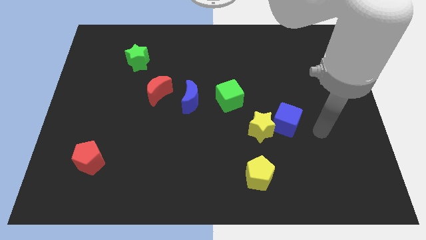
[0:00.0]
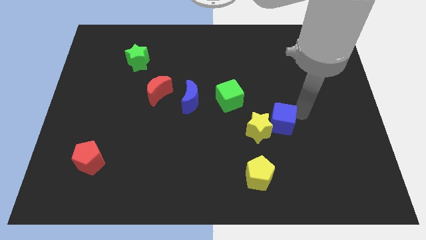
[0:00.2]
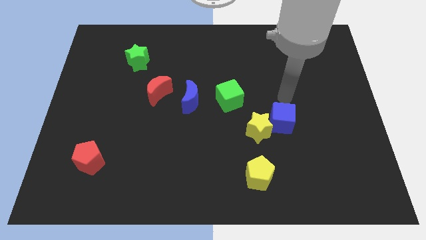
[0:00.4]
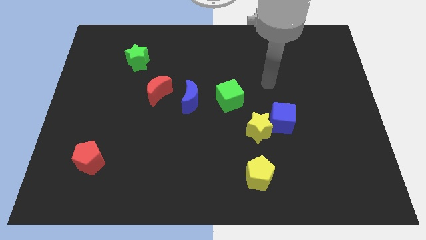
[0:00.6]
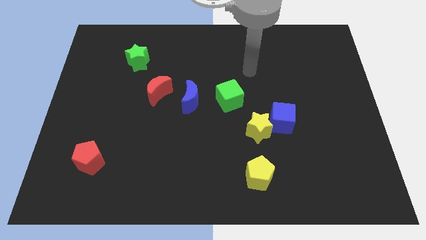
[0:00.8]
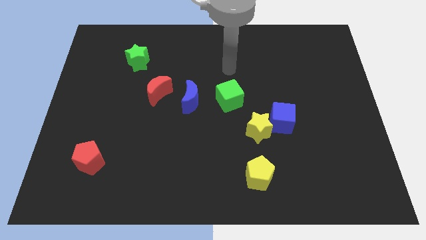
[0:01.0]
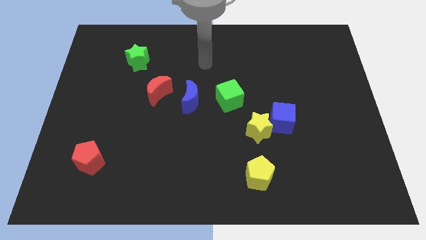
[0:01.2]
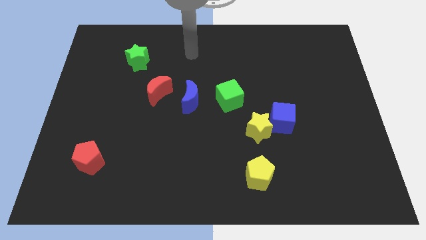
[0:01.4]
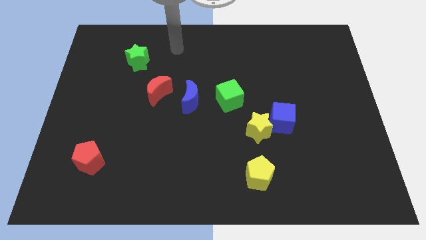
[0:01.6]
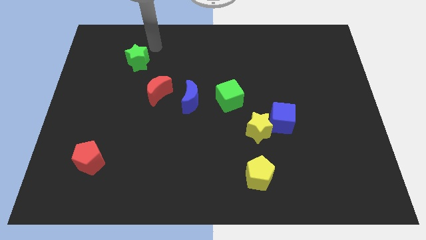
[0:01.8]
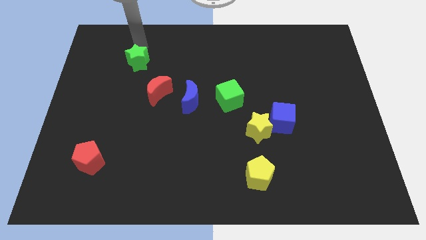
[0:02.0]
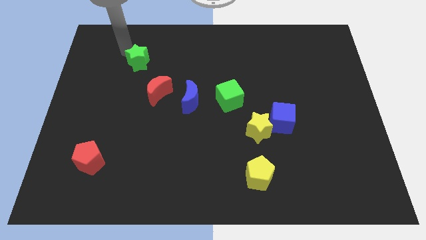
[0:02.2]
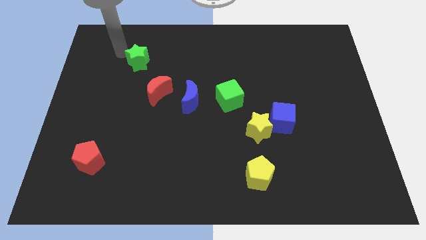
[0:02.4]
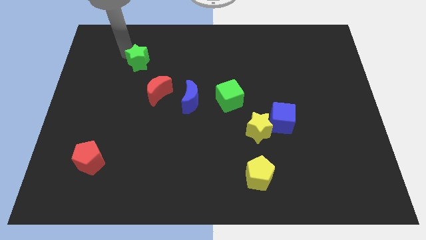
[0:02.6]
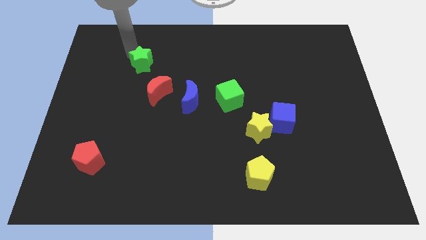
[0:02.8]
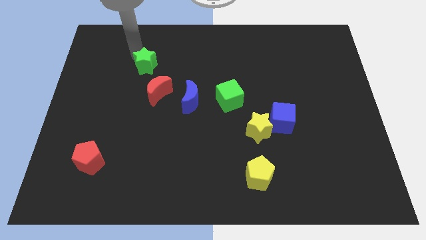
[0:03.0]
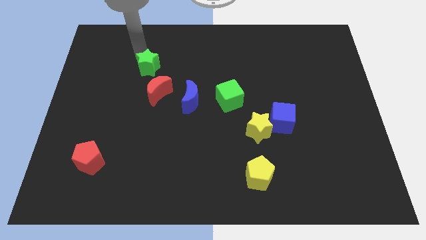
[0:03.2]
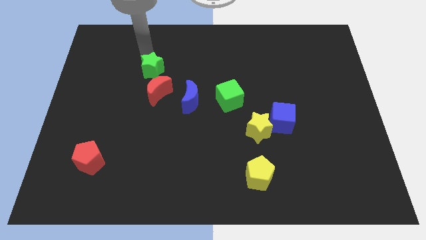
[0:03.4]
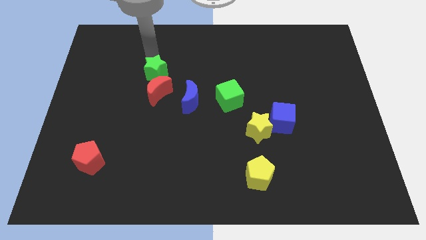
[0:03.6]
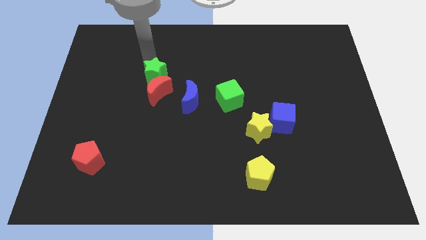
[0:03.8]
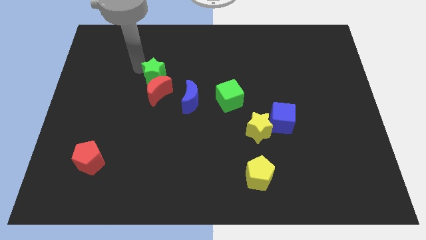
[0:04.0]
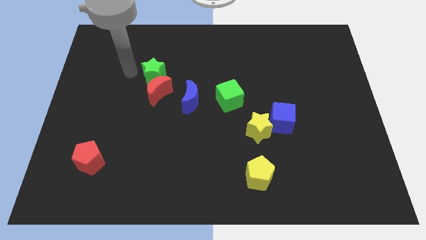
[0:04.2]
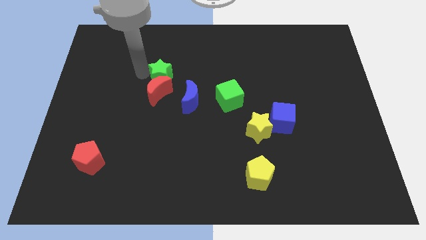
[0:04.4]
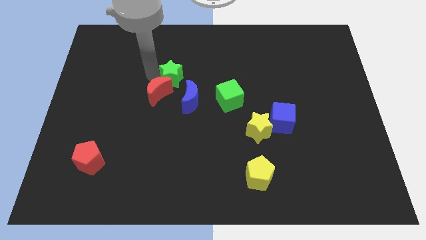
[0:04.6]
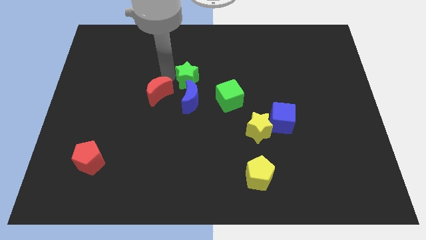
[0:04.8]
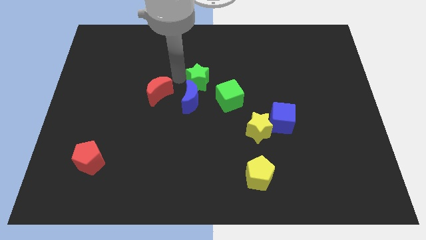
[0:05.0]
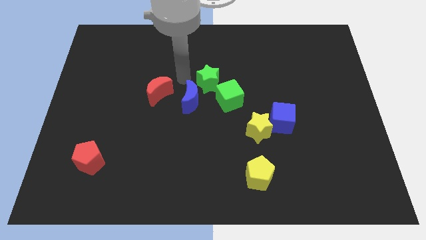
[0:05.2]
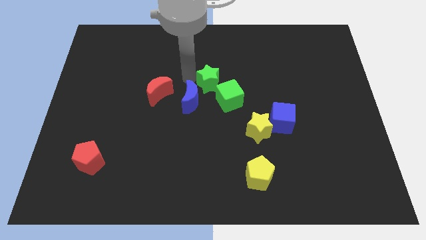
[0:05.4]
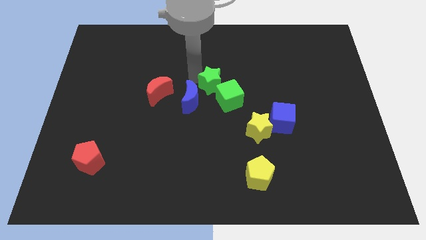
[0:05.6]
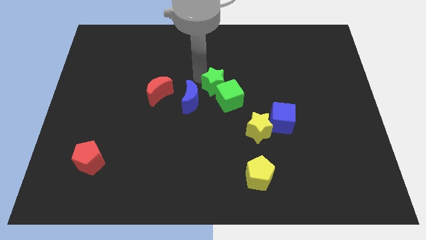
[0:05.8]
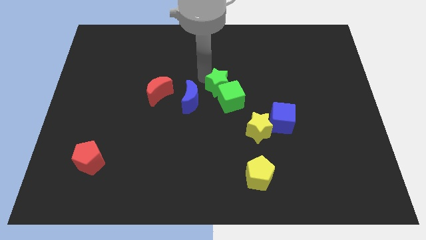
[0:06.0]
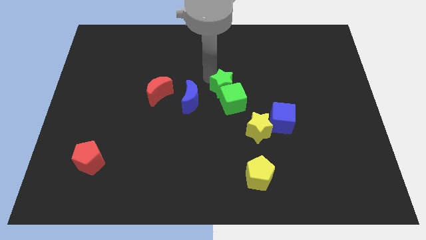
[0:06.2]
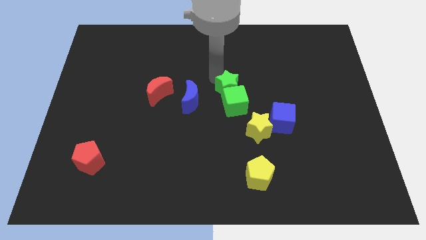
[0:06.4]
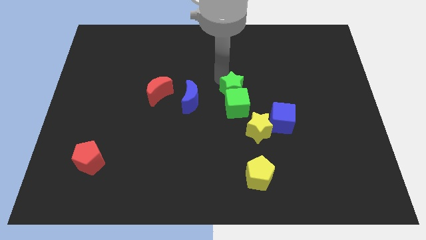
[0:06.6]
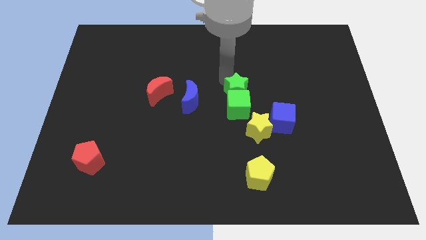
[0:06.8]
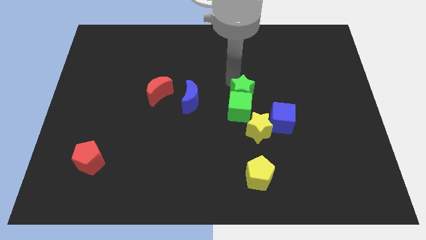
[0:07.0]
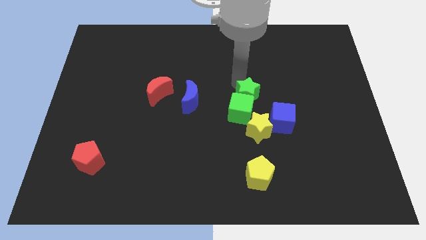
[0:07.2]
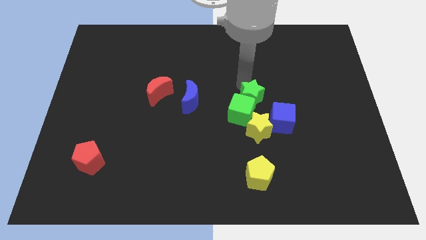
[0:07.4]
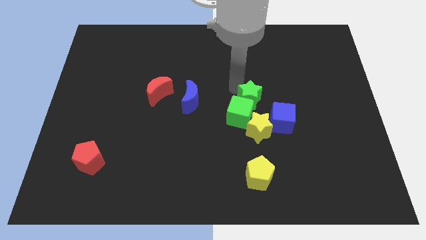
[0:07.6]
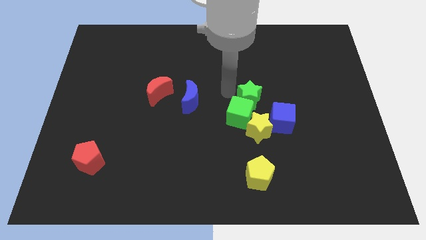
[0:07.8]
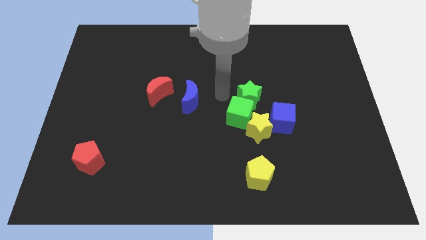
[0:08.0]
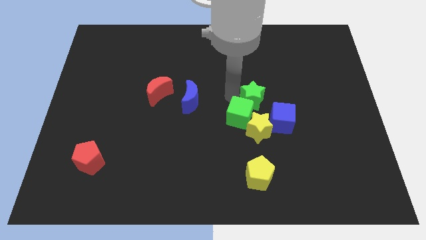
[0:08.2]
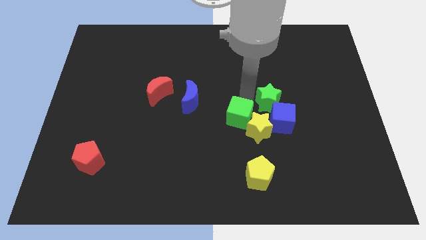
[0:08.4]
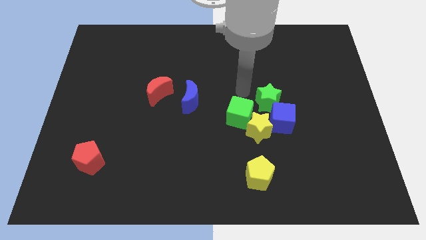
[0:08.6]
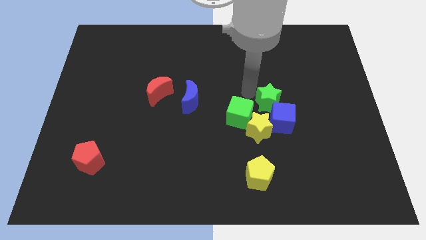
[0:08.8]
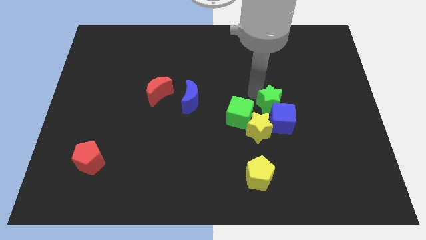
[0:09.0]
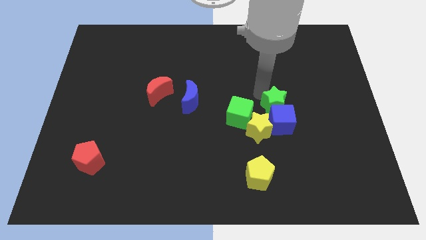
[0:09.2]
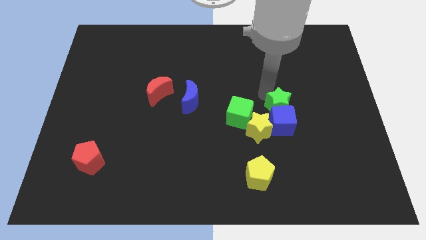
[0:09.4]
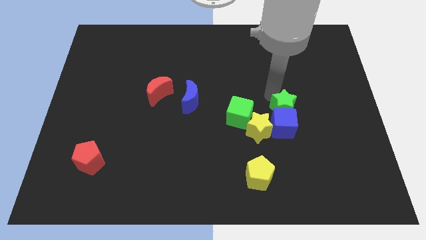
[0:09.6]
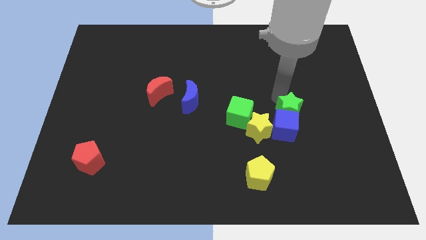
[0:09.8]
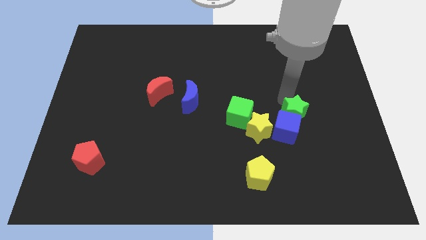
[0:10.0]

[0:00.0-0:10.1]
push the green star just right of the yellow star

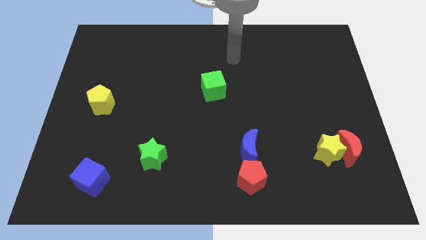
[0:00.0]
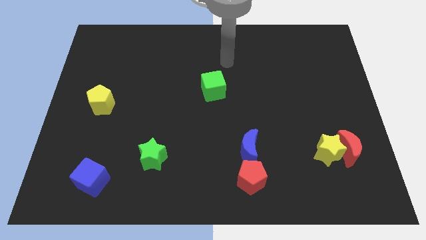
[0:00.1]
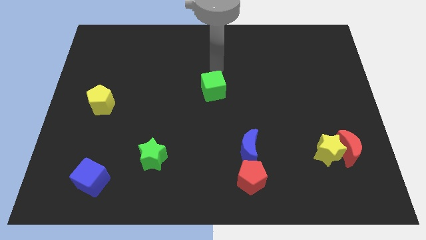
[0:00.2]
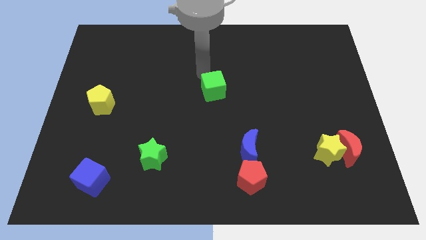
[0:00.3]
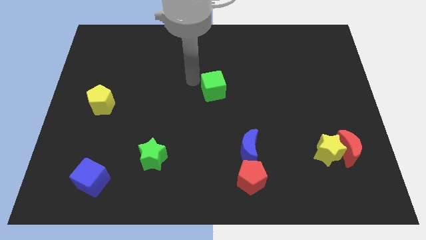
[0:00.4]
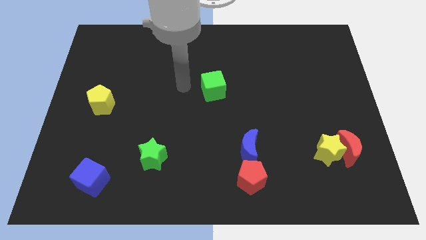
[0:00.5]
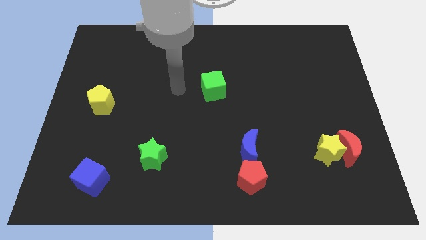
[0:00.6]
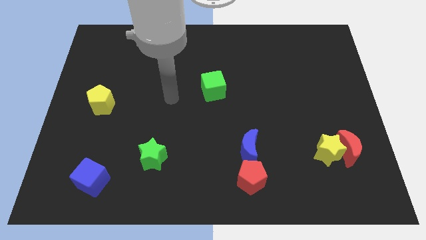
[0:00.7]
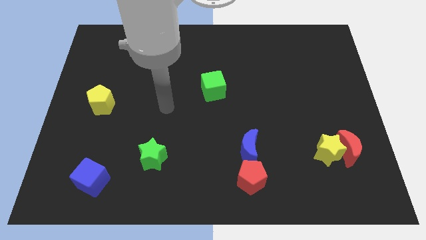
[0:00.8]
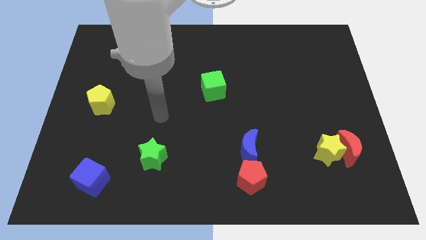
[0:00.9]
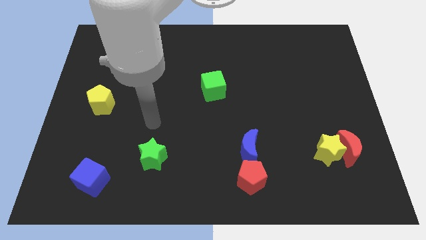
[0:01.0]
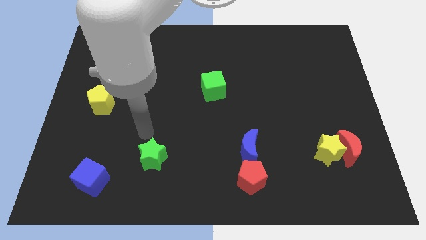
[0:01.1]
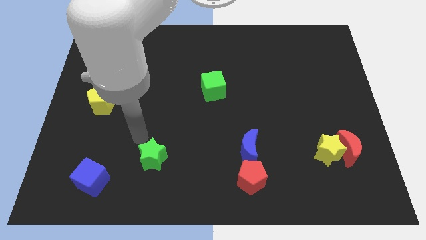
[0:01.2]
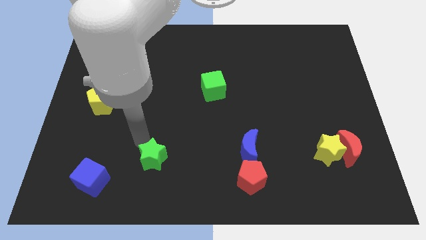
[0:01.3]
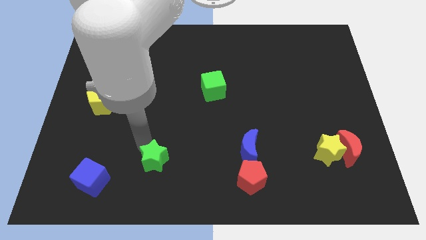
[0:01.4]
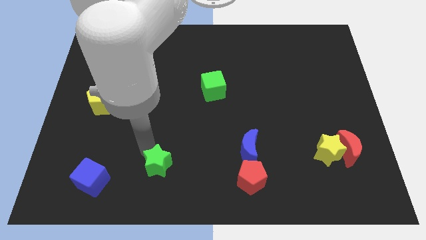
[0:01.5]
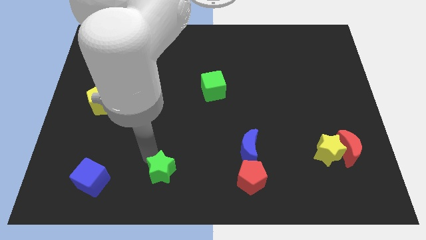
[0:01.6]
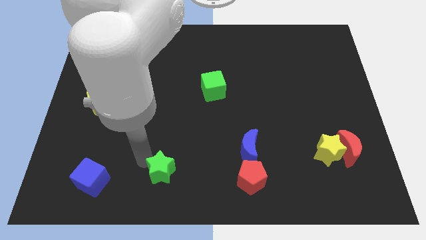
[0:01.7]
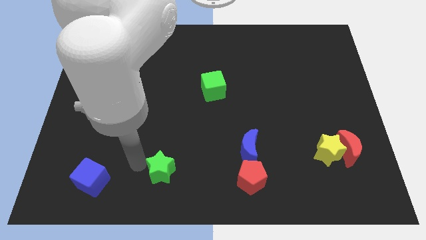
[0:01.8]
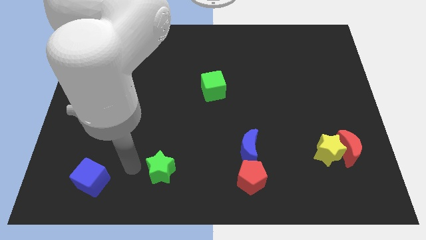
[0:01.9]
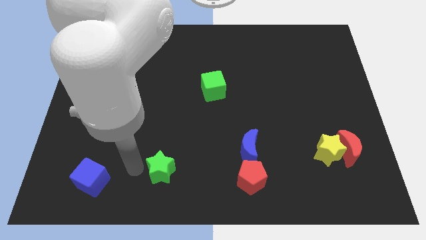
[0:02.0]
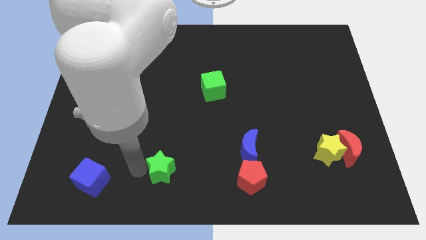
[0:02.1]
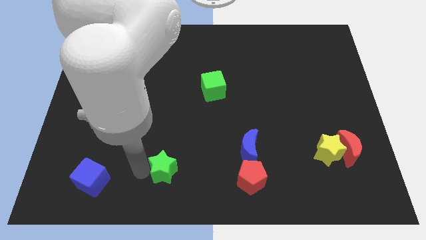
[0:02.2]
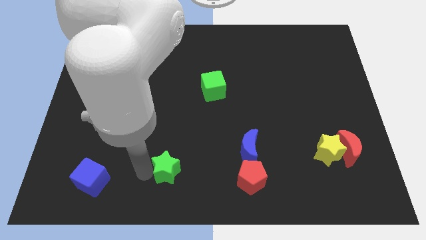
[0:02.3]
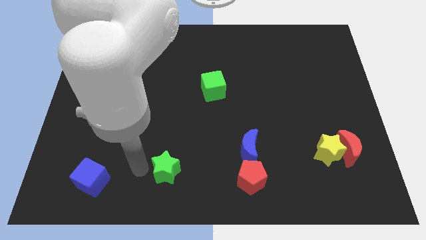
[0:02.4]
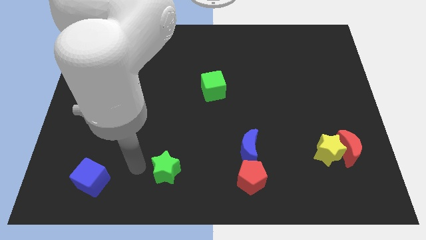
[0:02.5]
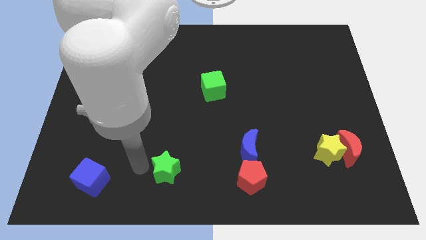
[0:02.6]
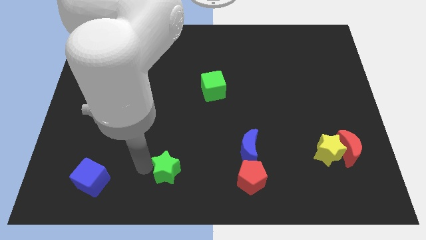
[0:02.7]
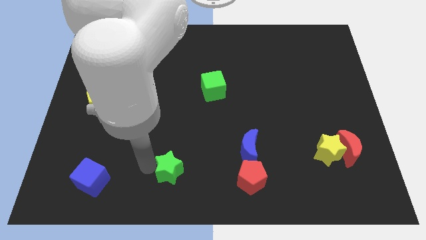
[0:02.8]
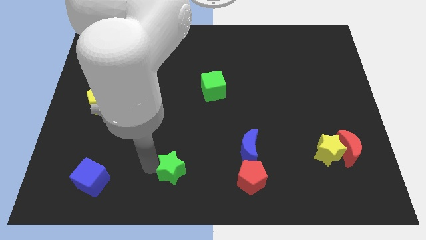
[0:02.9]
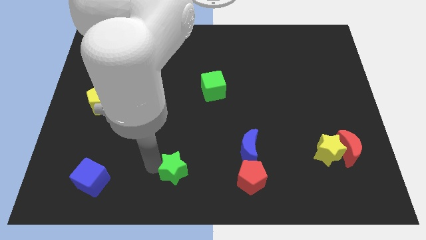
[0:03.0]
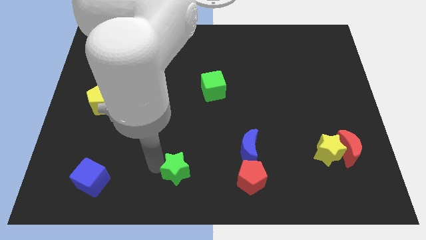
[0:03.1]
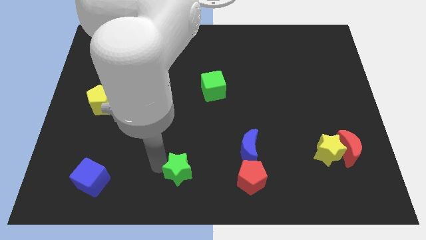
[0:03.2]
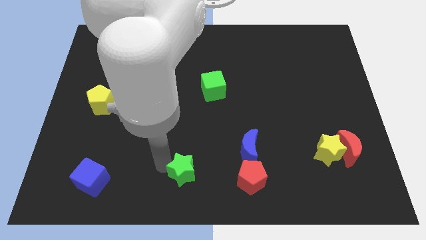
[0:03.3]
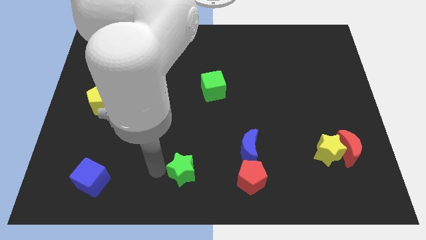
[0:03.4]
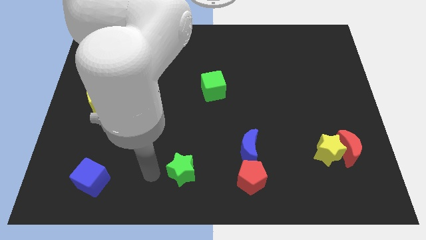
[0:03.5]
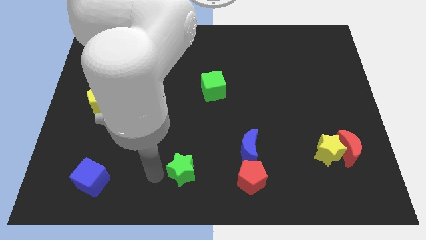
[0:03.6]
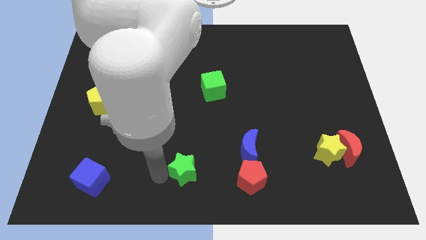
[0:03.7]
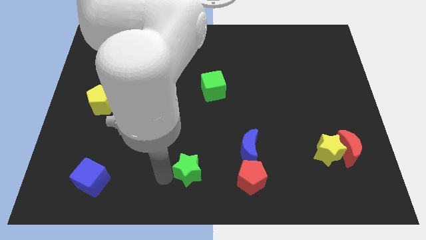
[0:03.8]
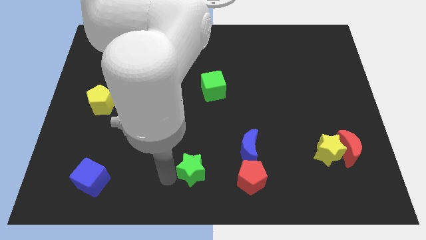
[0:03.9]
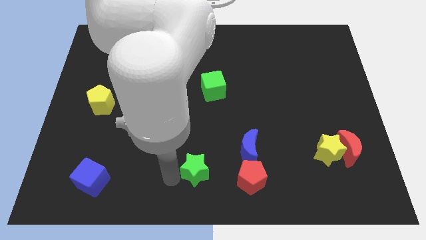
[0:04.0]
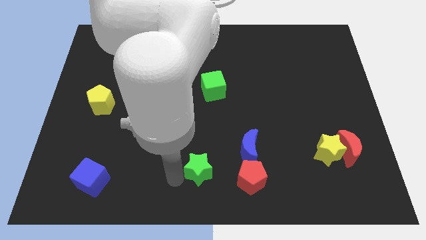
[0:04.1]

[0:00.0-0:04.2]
push the green star diagonally down and to the left of the blue moon
